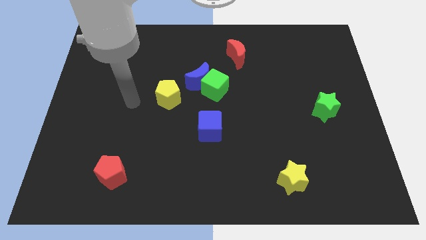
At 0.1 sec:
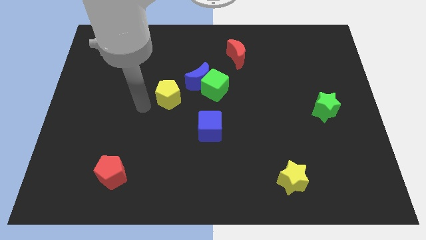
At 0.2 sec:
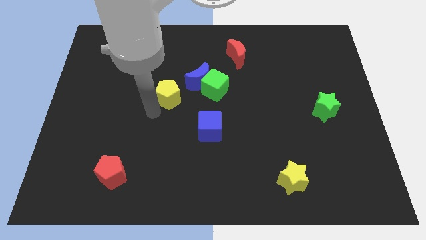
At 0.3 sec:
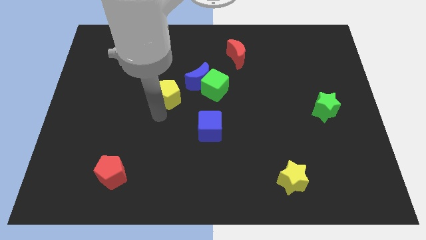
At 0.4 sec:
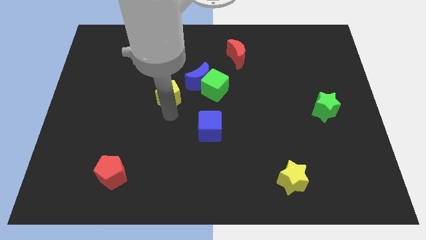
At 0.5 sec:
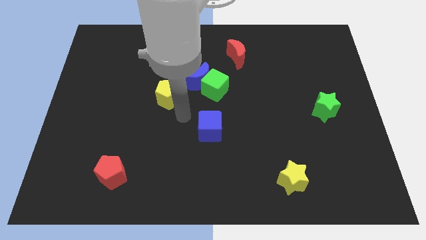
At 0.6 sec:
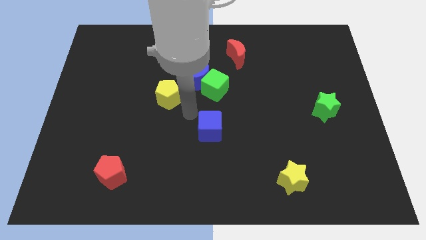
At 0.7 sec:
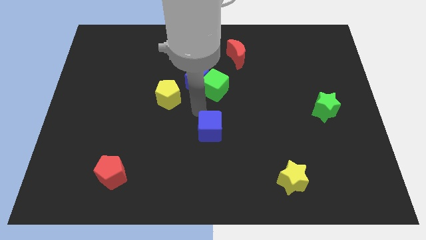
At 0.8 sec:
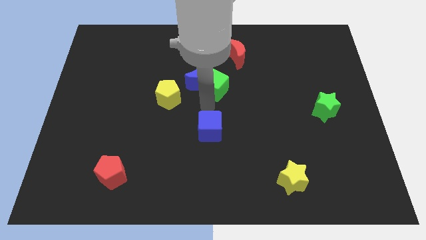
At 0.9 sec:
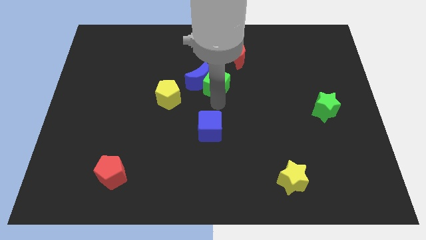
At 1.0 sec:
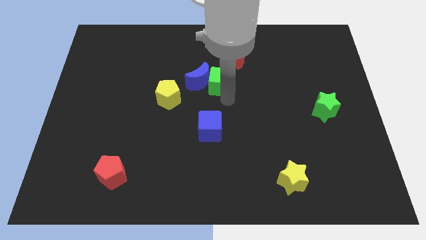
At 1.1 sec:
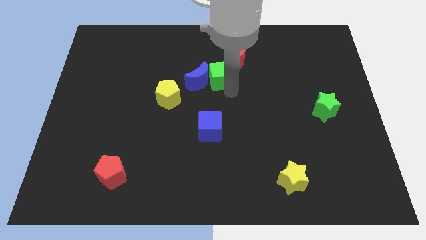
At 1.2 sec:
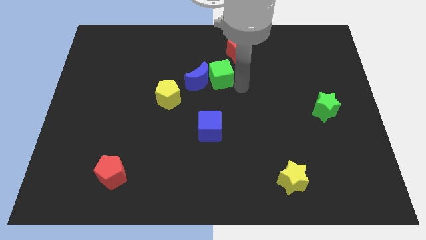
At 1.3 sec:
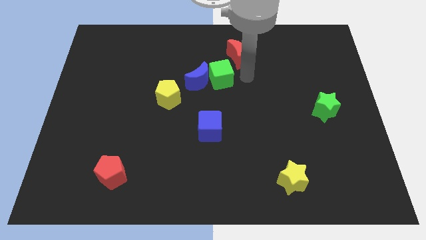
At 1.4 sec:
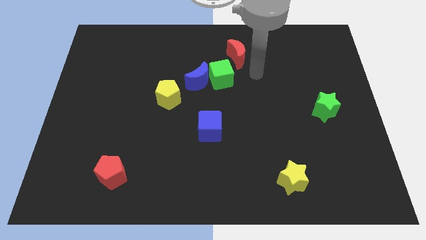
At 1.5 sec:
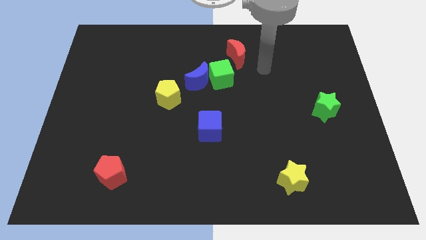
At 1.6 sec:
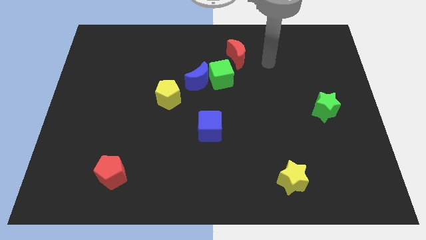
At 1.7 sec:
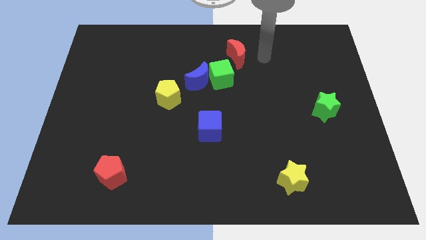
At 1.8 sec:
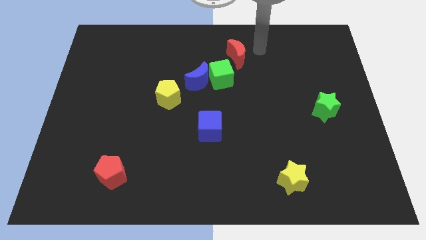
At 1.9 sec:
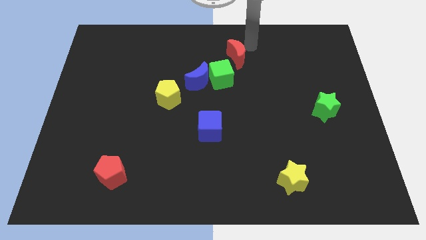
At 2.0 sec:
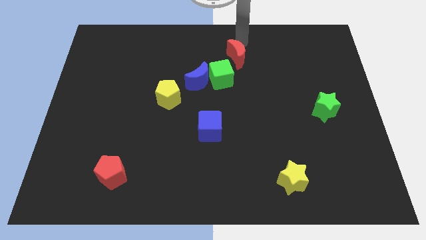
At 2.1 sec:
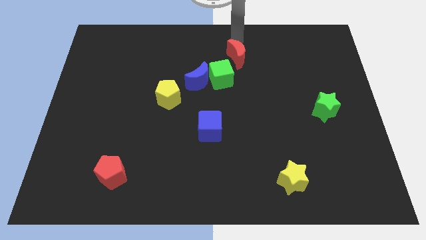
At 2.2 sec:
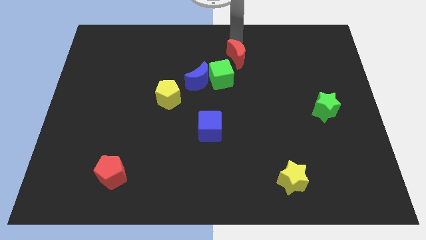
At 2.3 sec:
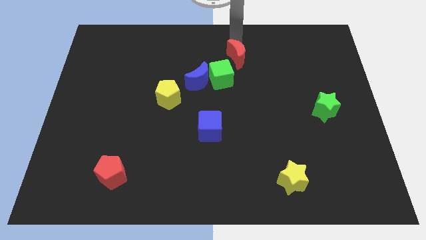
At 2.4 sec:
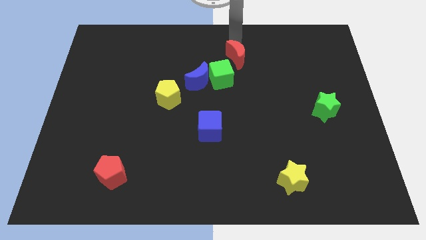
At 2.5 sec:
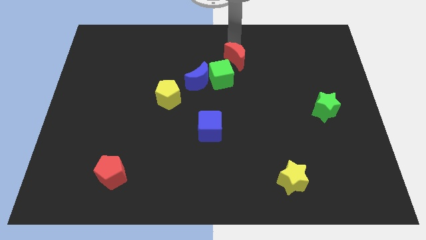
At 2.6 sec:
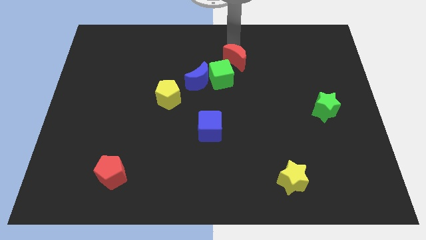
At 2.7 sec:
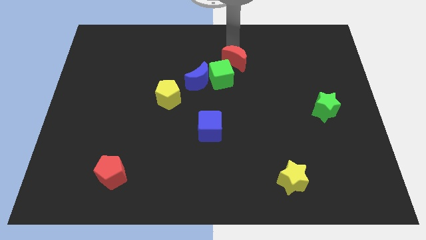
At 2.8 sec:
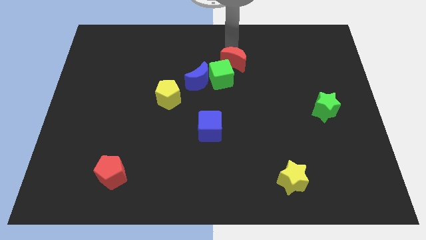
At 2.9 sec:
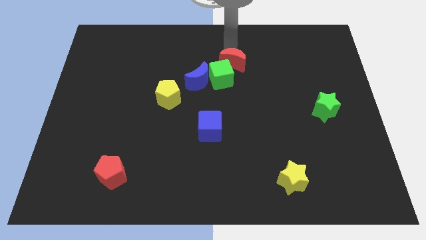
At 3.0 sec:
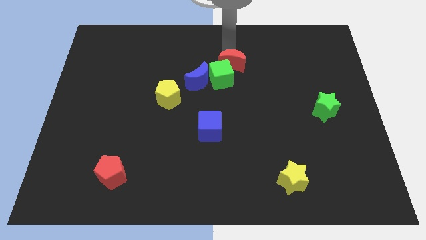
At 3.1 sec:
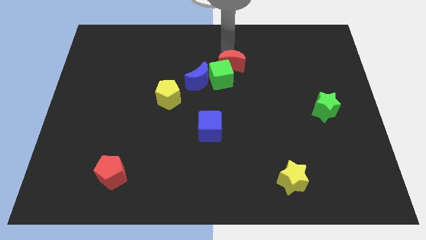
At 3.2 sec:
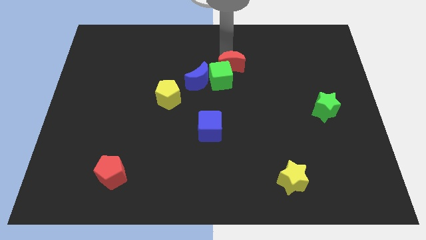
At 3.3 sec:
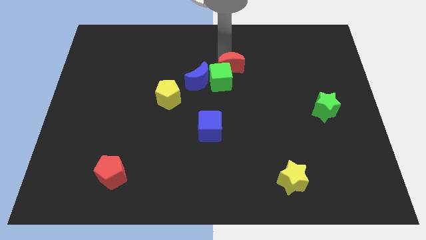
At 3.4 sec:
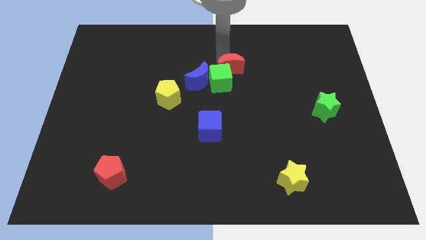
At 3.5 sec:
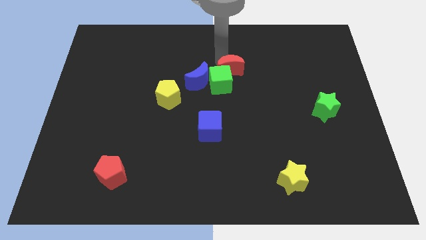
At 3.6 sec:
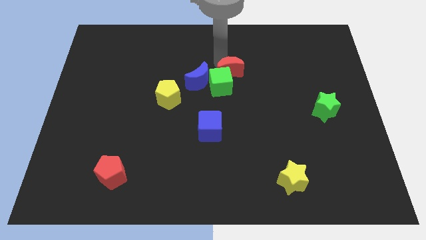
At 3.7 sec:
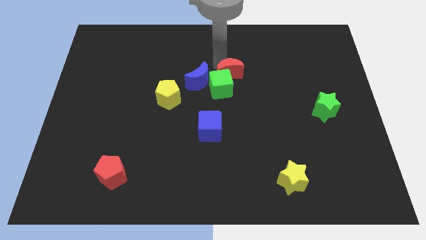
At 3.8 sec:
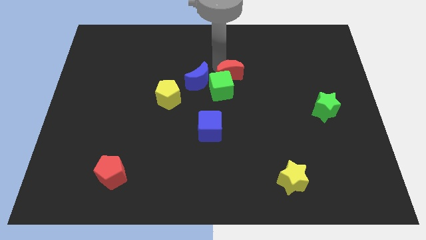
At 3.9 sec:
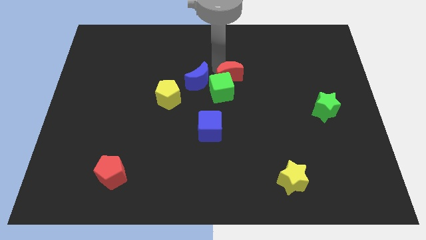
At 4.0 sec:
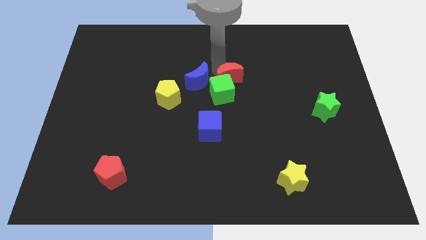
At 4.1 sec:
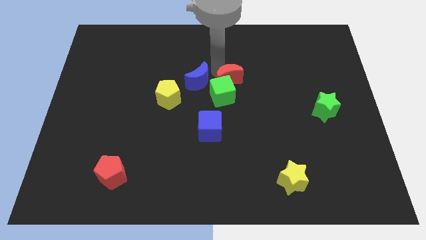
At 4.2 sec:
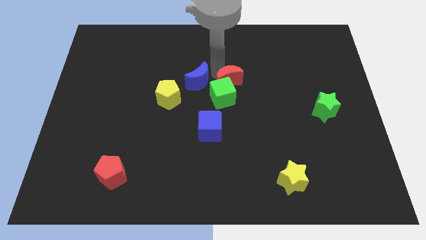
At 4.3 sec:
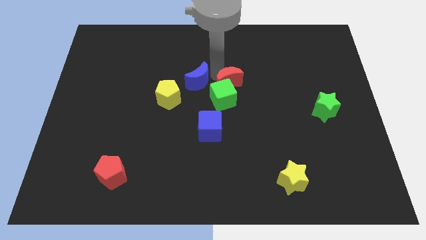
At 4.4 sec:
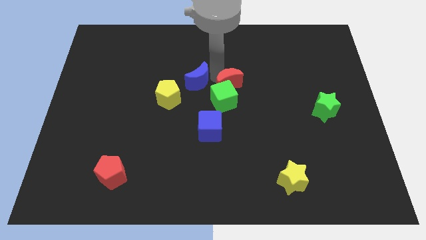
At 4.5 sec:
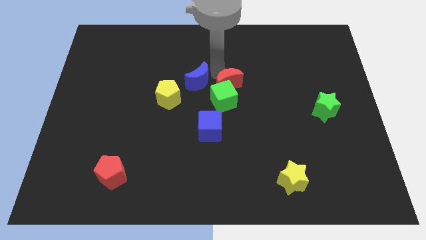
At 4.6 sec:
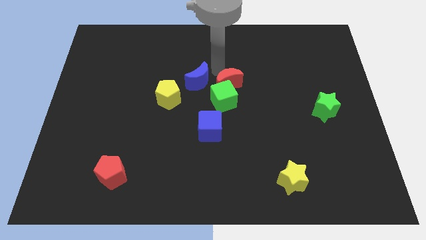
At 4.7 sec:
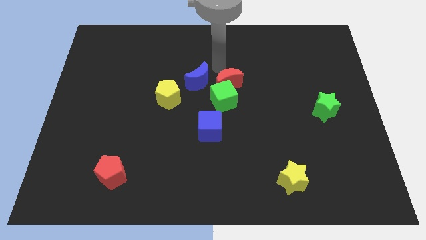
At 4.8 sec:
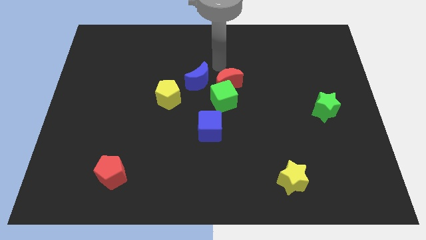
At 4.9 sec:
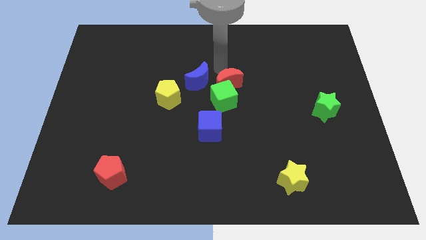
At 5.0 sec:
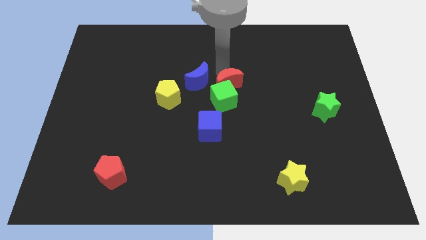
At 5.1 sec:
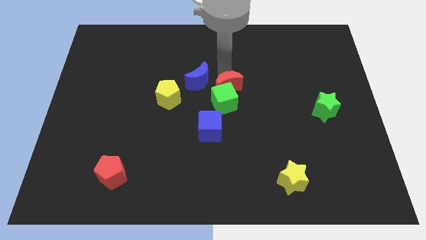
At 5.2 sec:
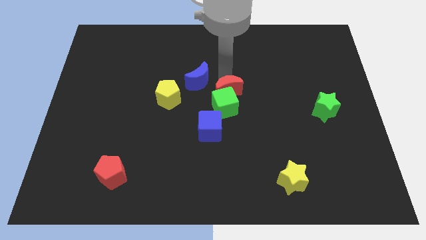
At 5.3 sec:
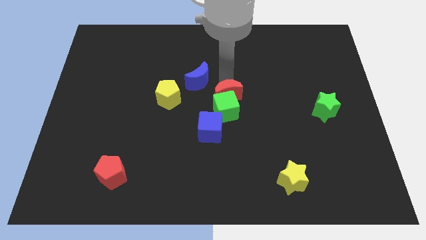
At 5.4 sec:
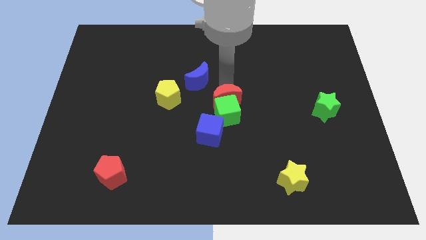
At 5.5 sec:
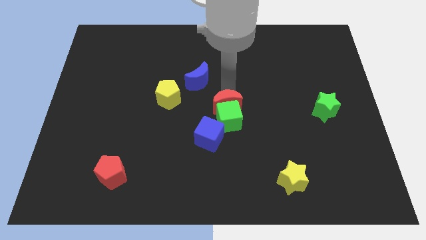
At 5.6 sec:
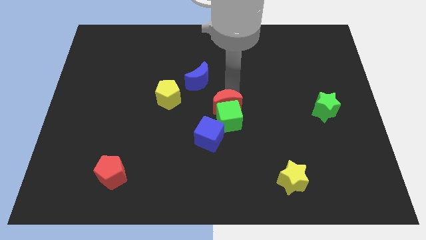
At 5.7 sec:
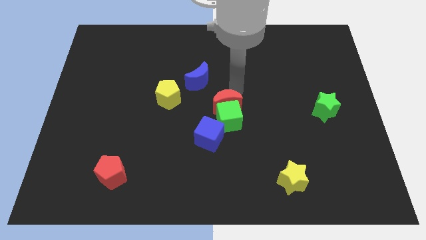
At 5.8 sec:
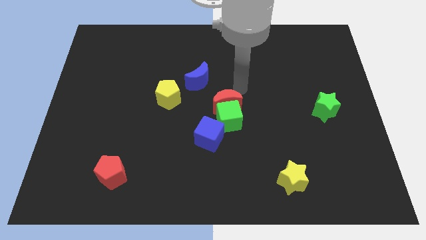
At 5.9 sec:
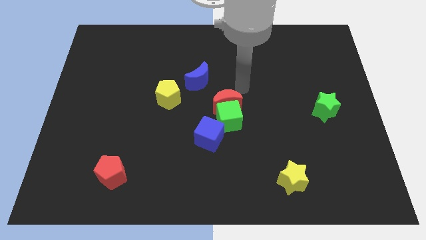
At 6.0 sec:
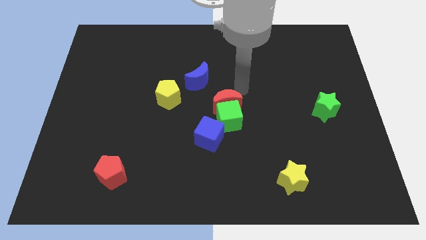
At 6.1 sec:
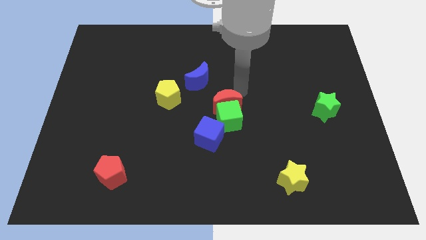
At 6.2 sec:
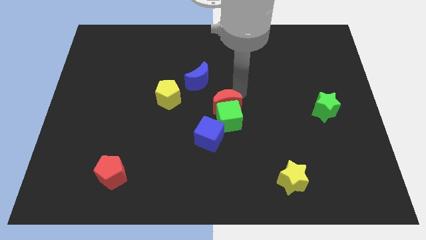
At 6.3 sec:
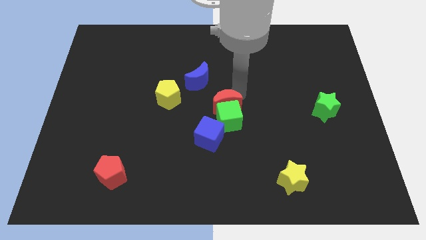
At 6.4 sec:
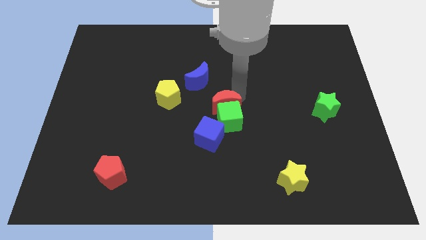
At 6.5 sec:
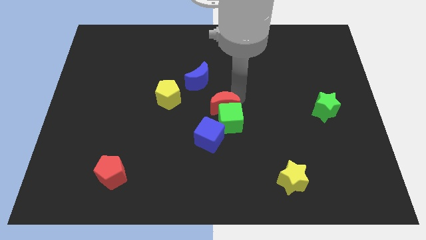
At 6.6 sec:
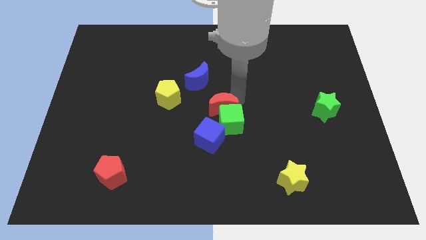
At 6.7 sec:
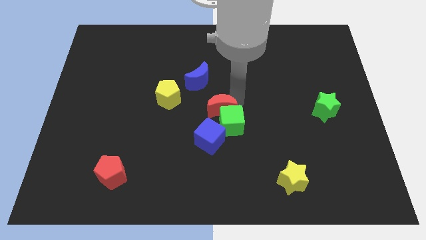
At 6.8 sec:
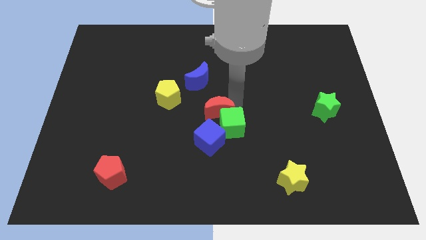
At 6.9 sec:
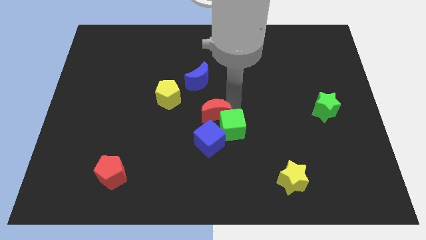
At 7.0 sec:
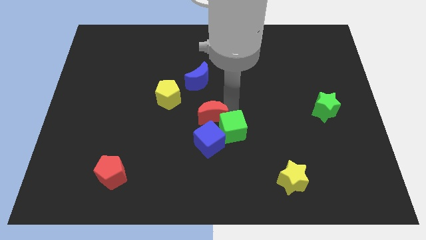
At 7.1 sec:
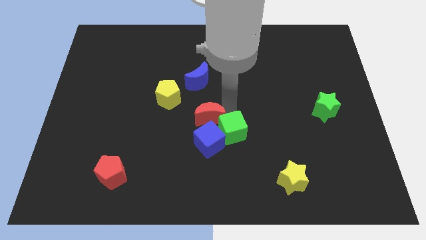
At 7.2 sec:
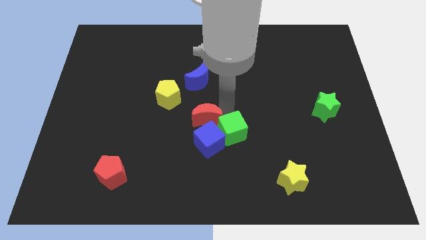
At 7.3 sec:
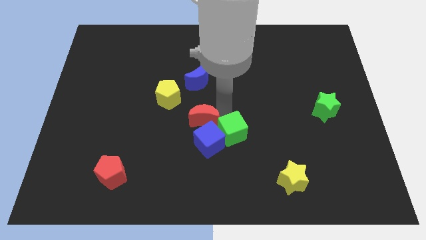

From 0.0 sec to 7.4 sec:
slide the red moon next to the blue cube
